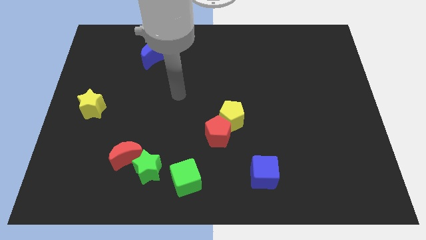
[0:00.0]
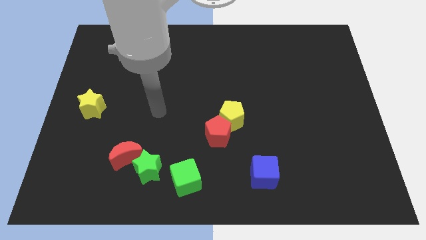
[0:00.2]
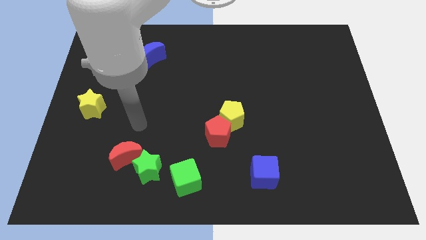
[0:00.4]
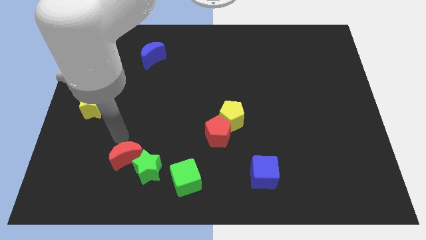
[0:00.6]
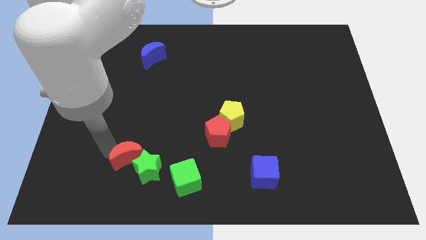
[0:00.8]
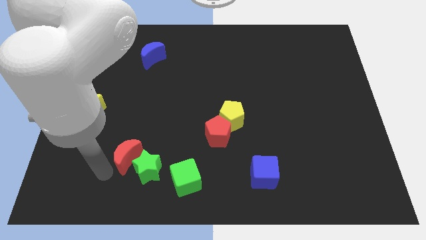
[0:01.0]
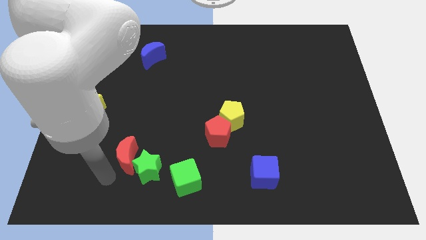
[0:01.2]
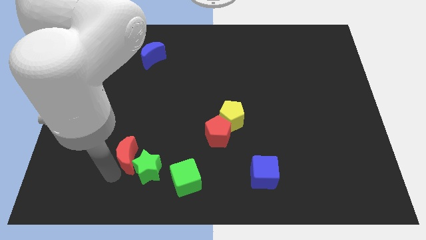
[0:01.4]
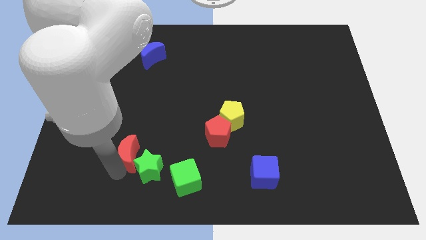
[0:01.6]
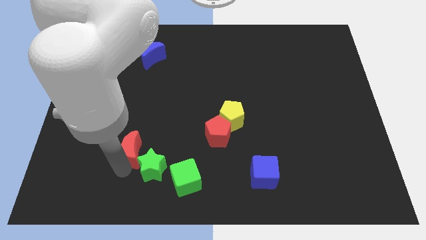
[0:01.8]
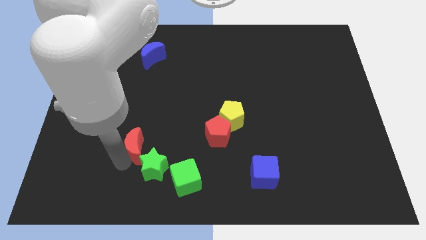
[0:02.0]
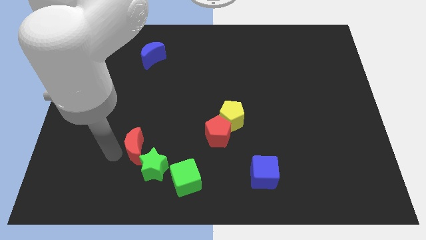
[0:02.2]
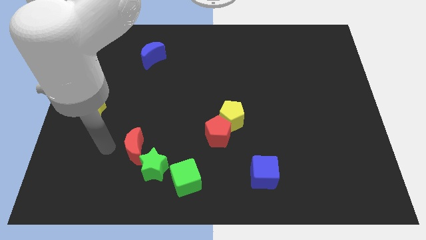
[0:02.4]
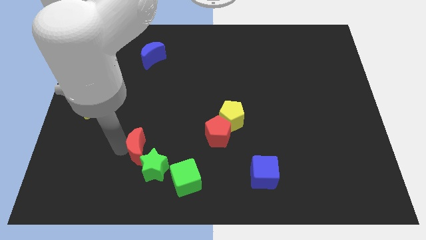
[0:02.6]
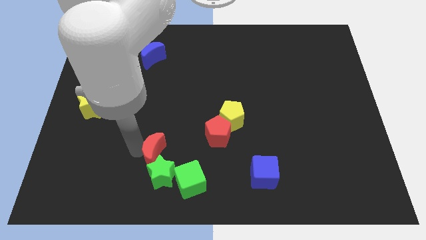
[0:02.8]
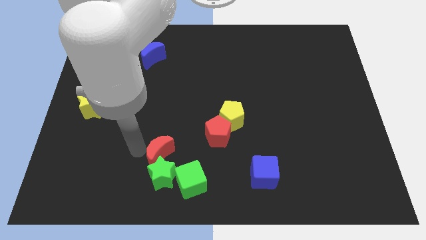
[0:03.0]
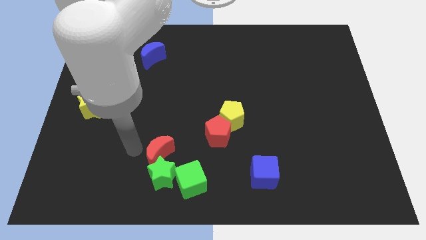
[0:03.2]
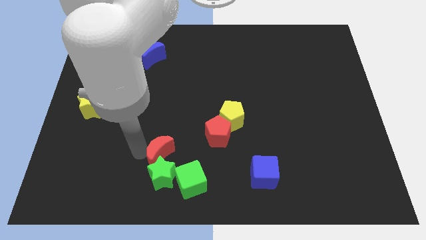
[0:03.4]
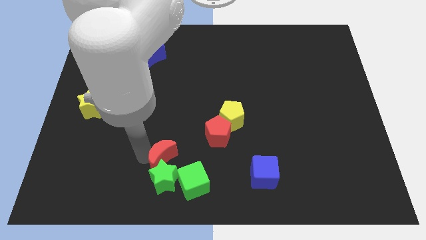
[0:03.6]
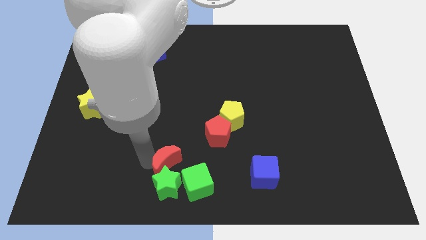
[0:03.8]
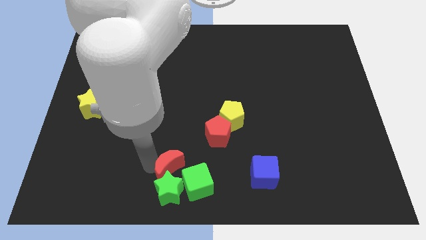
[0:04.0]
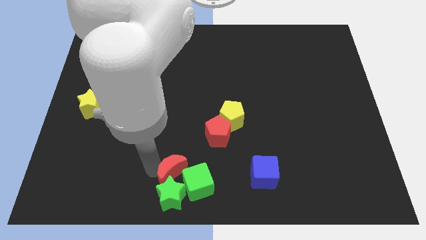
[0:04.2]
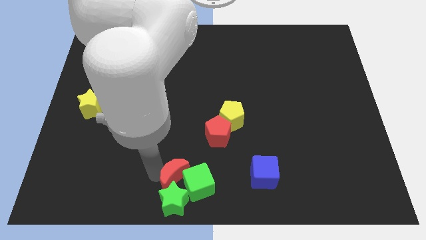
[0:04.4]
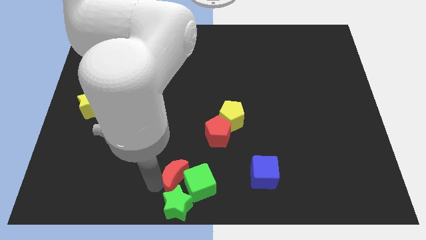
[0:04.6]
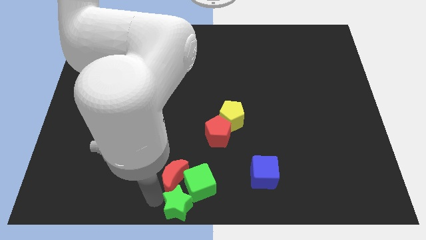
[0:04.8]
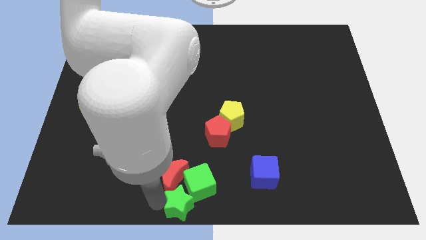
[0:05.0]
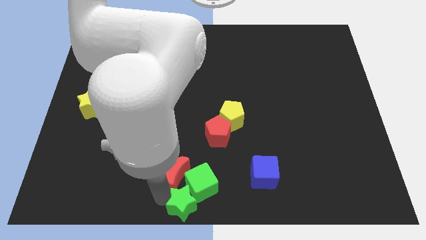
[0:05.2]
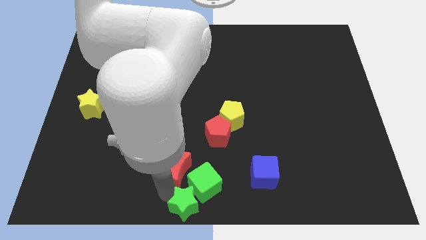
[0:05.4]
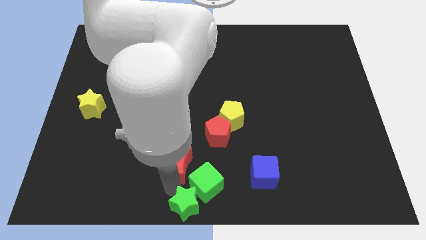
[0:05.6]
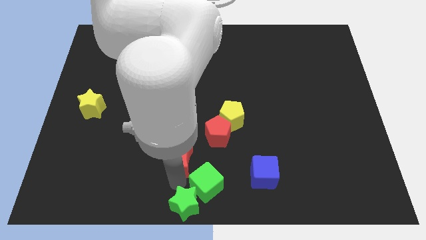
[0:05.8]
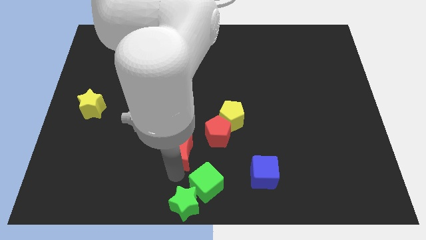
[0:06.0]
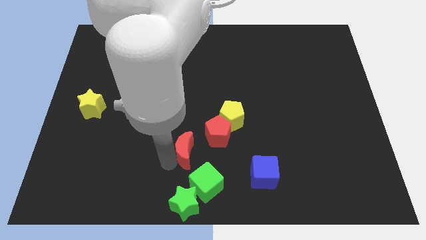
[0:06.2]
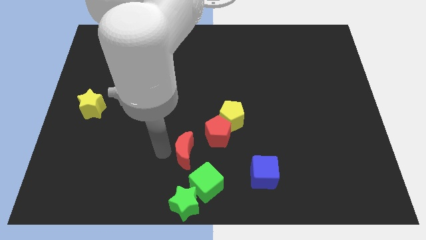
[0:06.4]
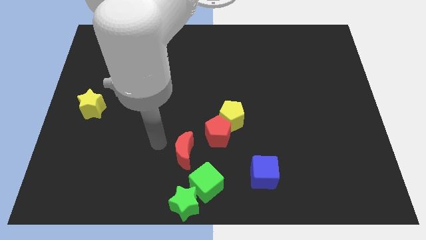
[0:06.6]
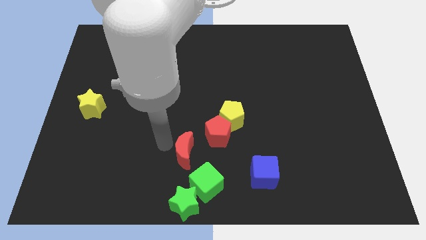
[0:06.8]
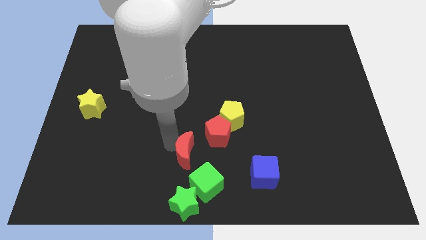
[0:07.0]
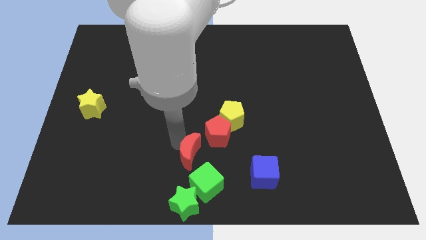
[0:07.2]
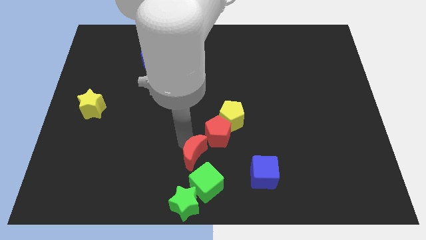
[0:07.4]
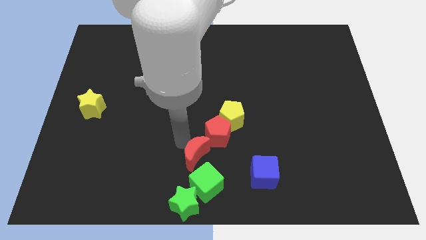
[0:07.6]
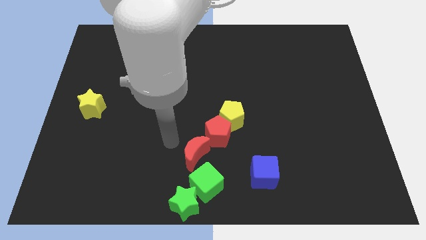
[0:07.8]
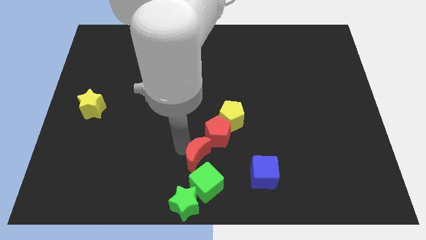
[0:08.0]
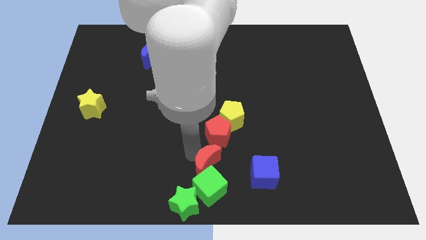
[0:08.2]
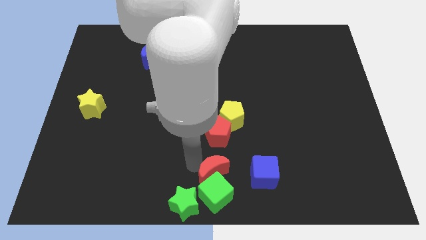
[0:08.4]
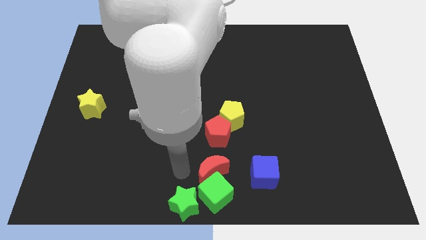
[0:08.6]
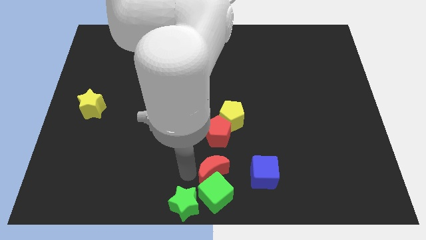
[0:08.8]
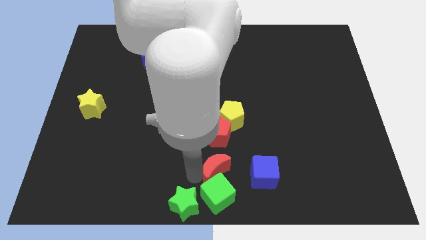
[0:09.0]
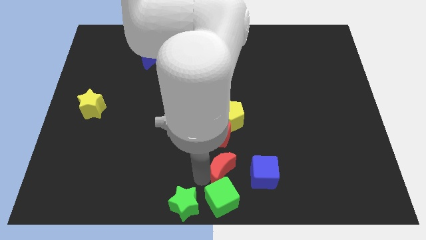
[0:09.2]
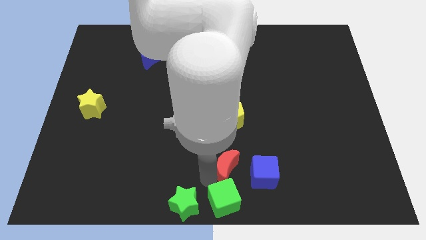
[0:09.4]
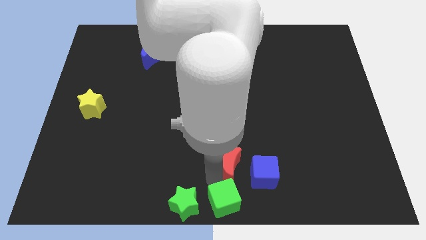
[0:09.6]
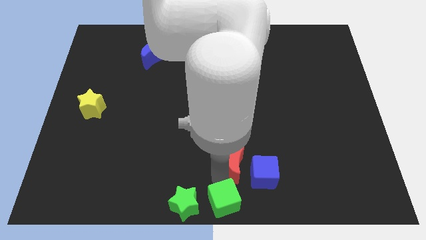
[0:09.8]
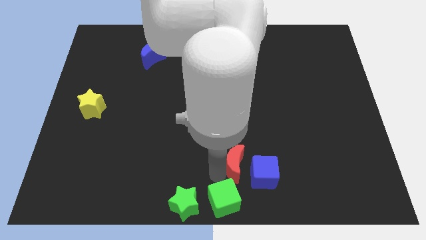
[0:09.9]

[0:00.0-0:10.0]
slide the red moon to the blue cube

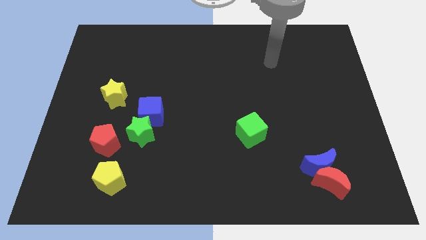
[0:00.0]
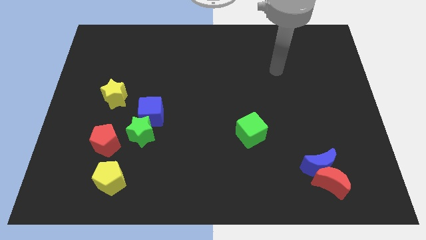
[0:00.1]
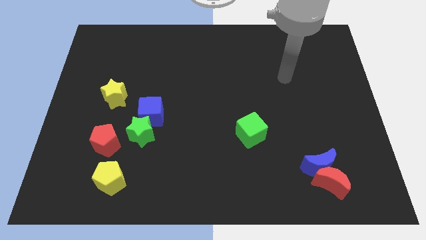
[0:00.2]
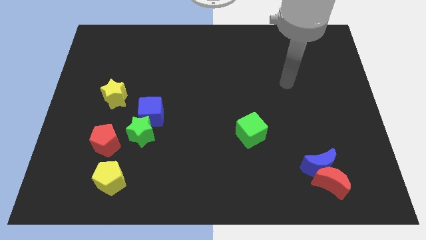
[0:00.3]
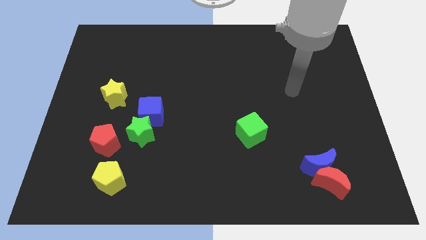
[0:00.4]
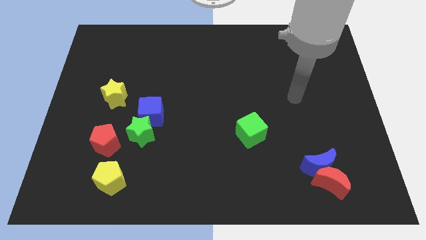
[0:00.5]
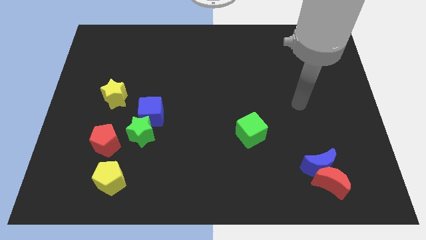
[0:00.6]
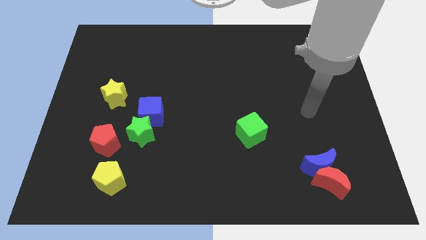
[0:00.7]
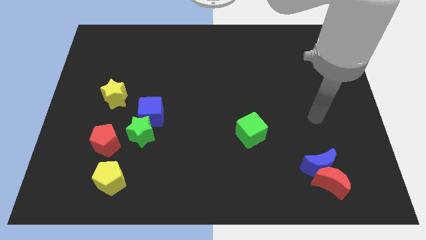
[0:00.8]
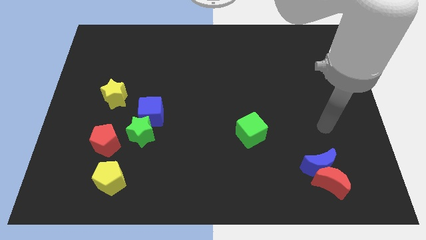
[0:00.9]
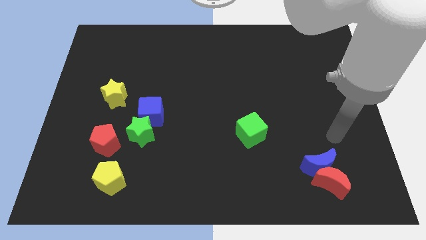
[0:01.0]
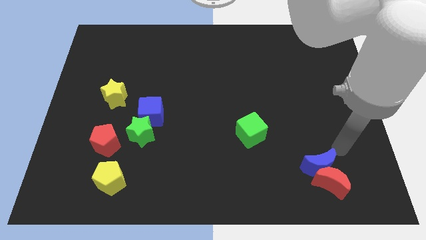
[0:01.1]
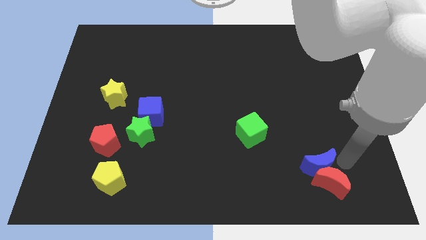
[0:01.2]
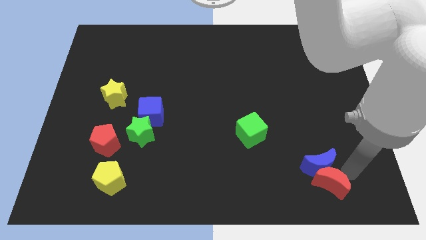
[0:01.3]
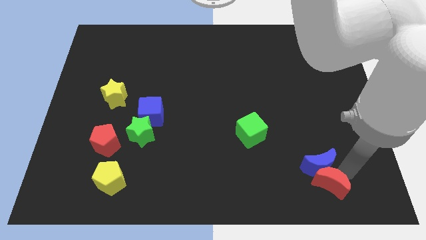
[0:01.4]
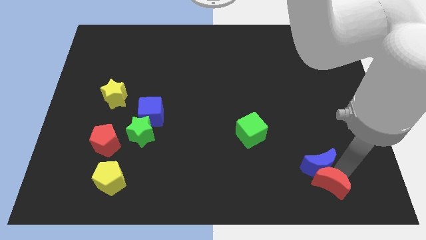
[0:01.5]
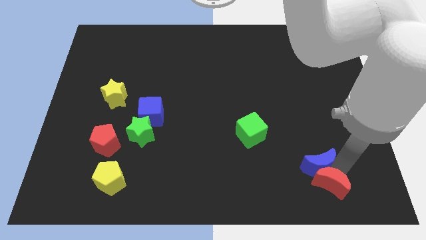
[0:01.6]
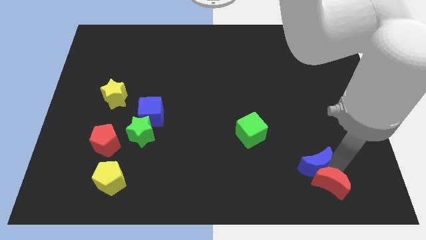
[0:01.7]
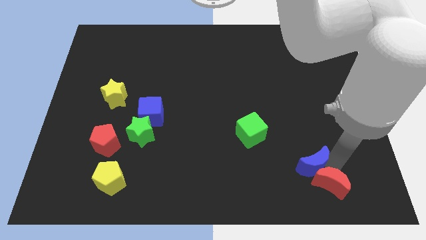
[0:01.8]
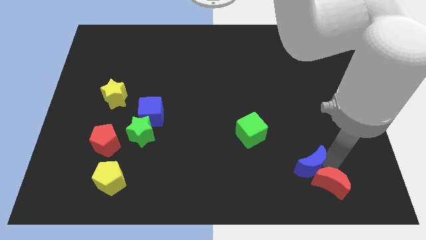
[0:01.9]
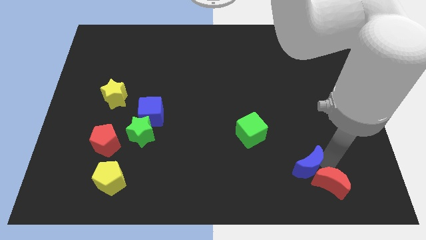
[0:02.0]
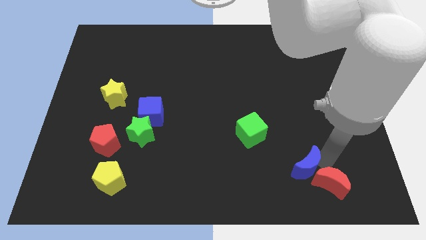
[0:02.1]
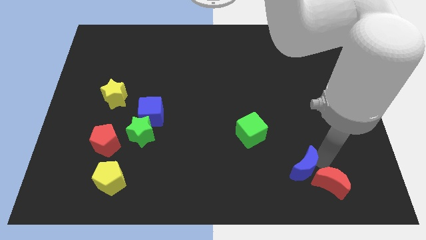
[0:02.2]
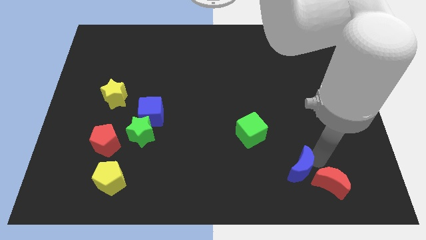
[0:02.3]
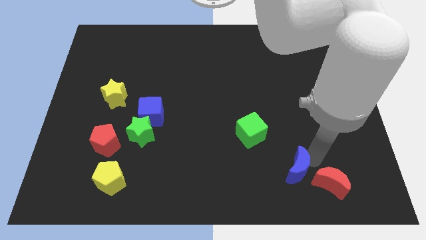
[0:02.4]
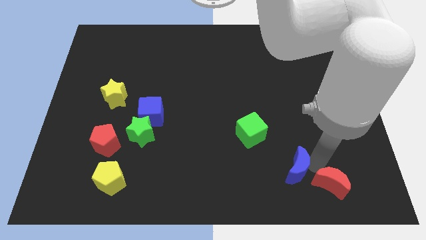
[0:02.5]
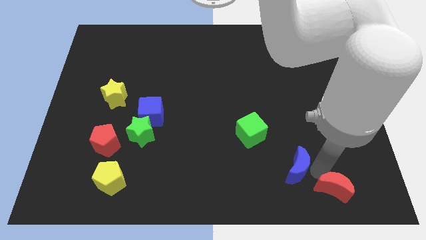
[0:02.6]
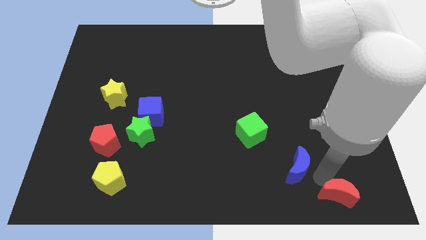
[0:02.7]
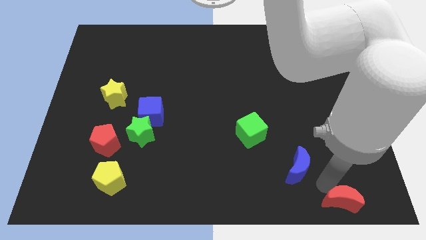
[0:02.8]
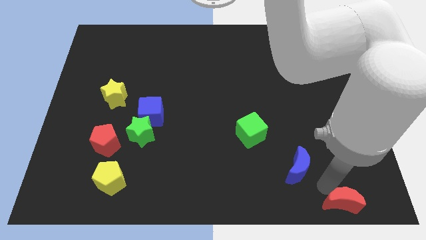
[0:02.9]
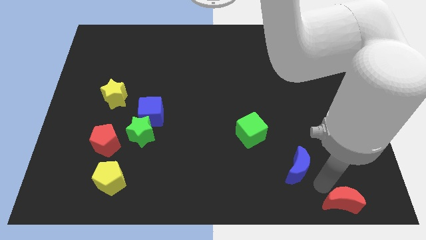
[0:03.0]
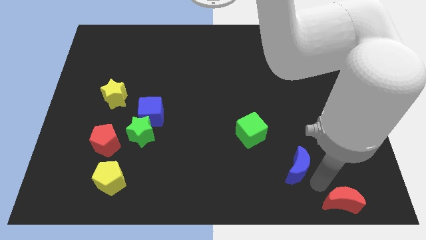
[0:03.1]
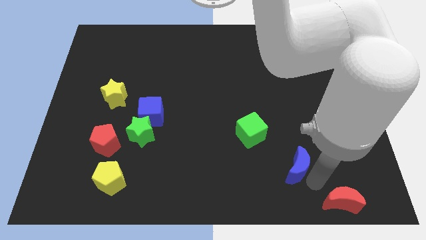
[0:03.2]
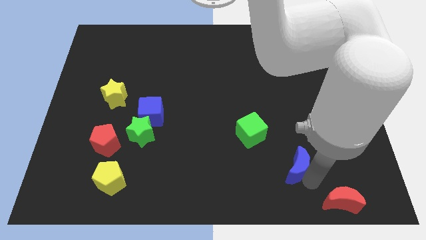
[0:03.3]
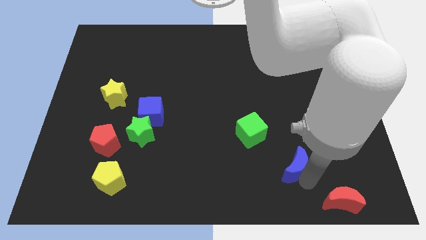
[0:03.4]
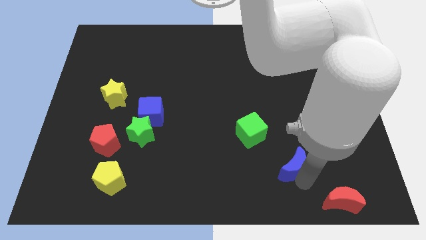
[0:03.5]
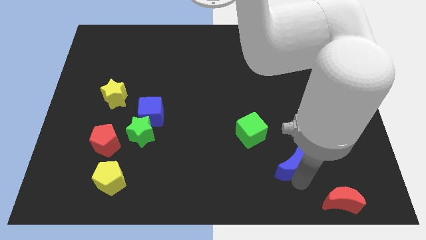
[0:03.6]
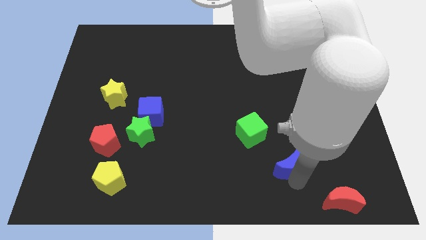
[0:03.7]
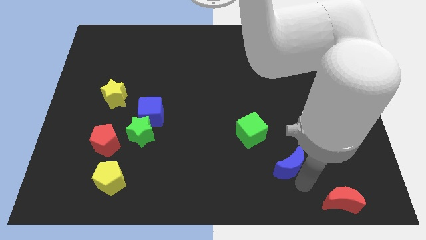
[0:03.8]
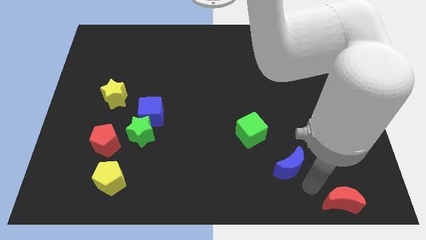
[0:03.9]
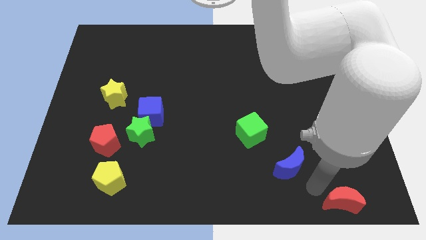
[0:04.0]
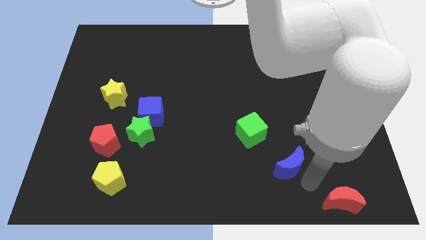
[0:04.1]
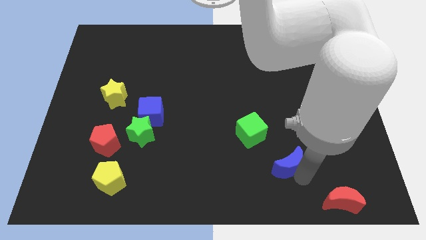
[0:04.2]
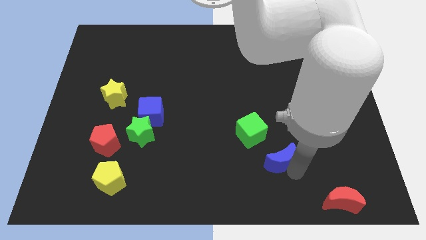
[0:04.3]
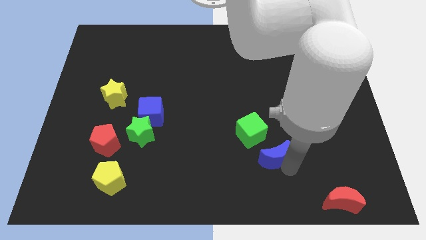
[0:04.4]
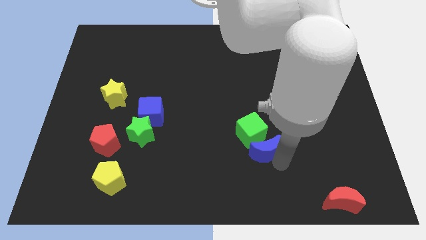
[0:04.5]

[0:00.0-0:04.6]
put the blue moon to the green cube
